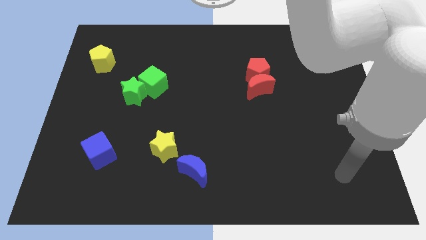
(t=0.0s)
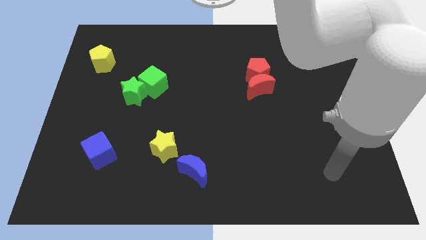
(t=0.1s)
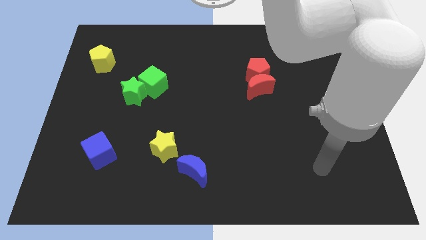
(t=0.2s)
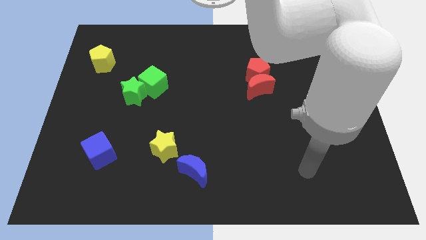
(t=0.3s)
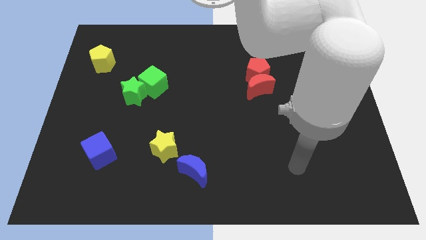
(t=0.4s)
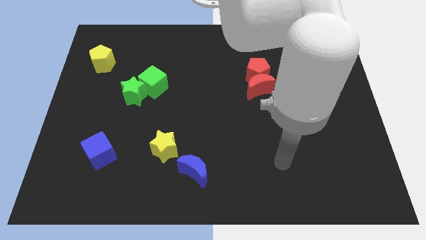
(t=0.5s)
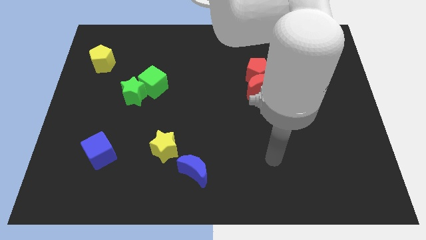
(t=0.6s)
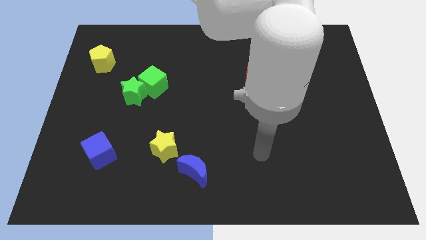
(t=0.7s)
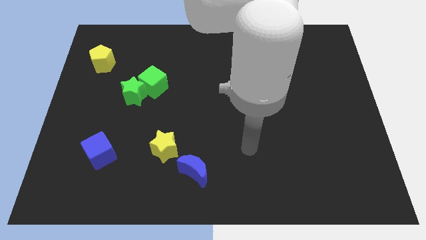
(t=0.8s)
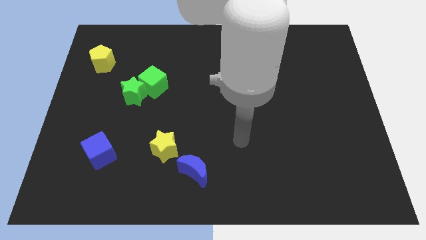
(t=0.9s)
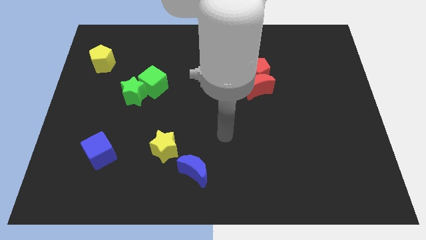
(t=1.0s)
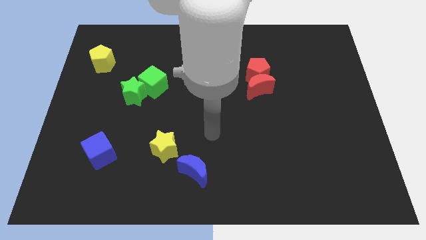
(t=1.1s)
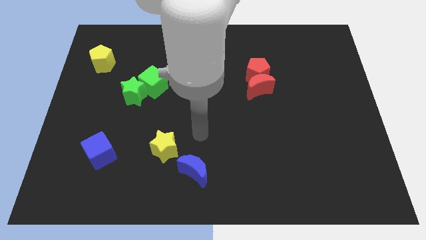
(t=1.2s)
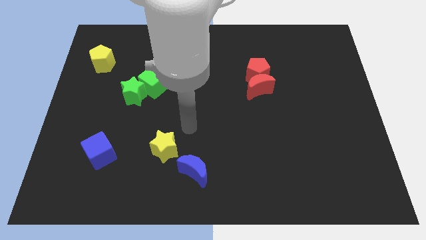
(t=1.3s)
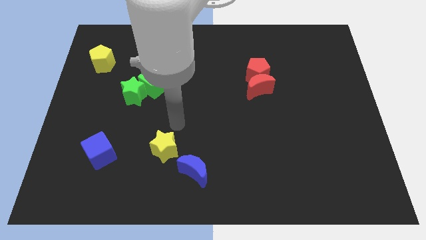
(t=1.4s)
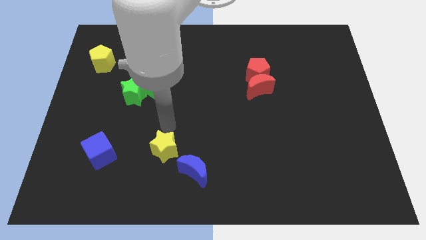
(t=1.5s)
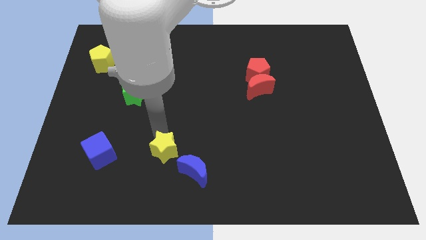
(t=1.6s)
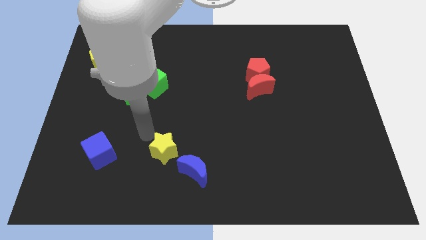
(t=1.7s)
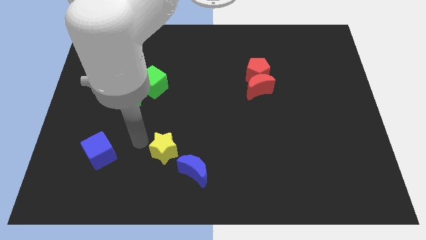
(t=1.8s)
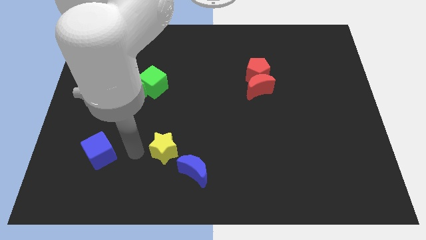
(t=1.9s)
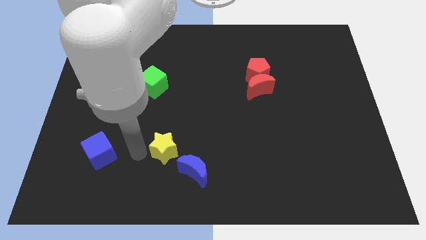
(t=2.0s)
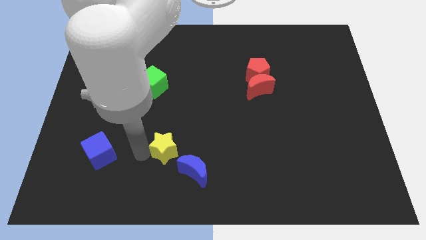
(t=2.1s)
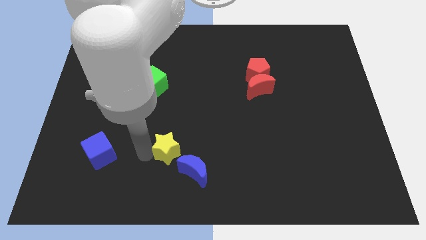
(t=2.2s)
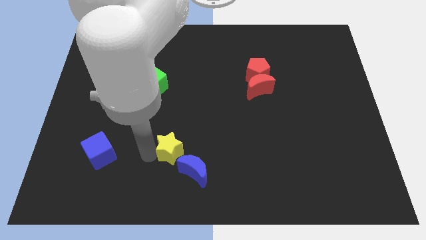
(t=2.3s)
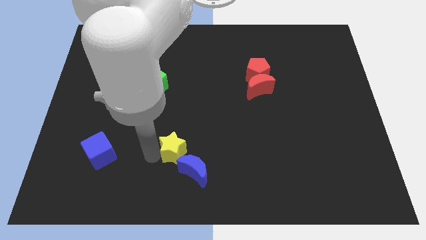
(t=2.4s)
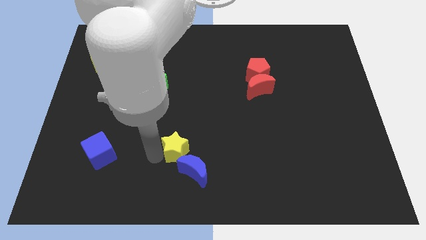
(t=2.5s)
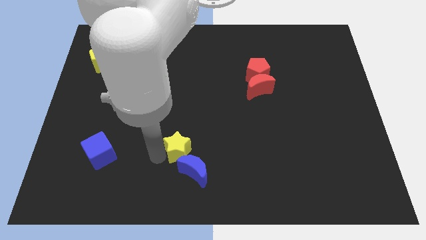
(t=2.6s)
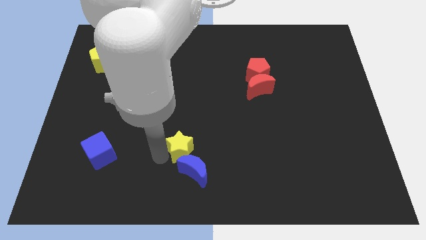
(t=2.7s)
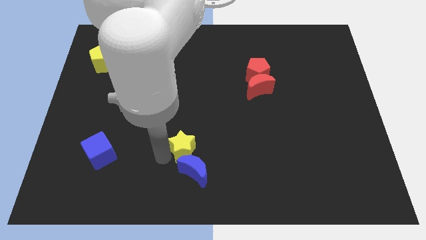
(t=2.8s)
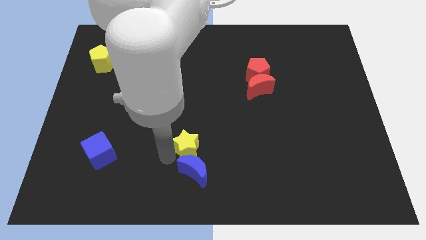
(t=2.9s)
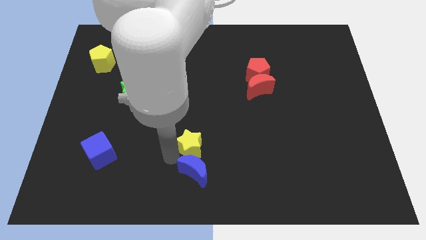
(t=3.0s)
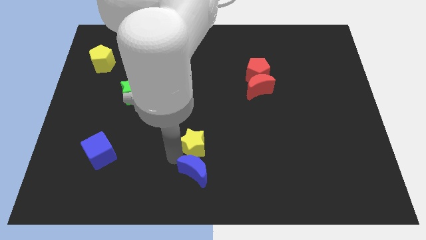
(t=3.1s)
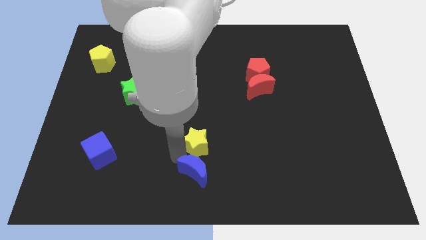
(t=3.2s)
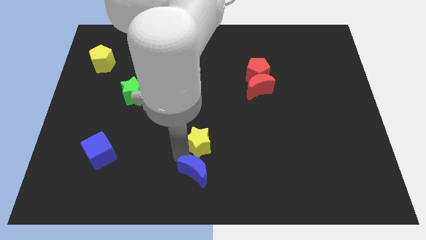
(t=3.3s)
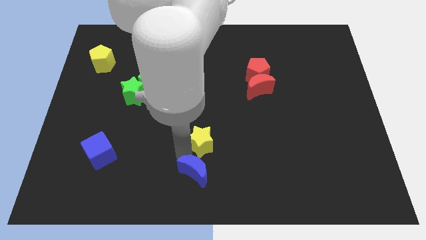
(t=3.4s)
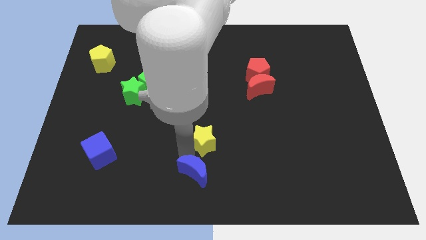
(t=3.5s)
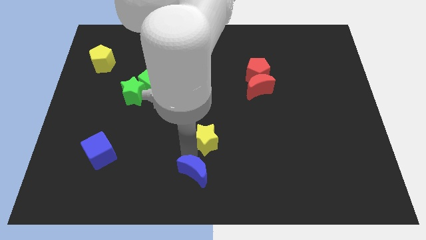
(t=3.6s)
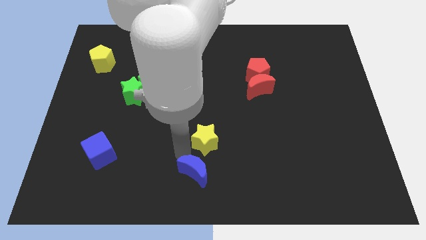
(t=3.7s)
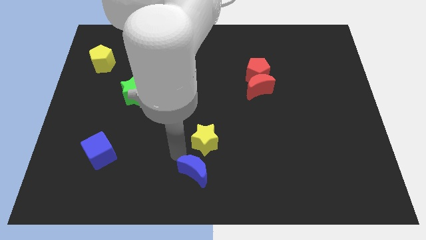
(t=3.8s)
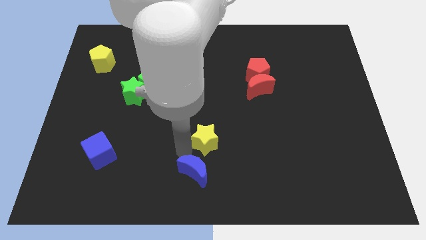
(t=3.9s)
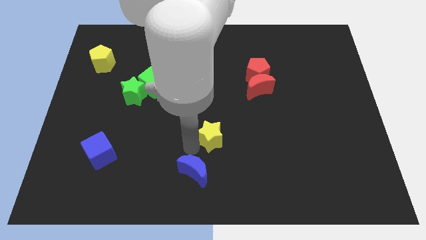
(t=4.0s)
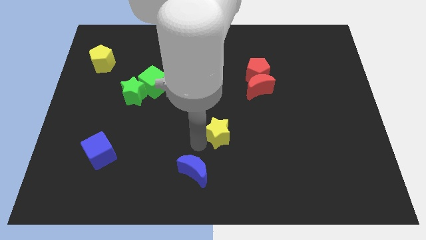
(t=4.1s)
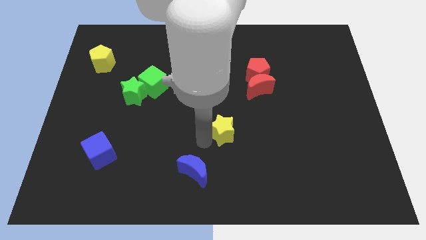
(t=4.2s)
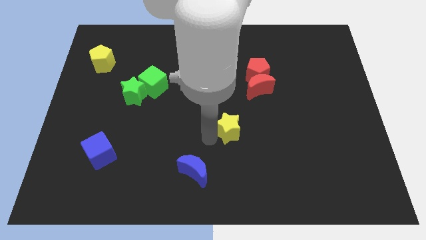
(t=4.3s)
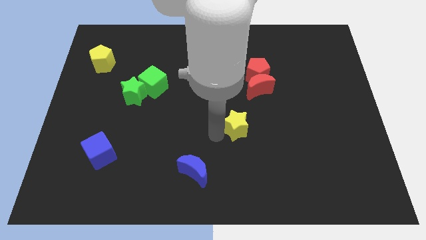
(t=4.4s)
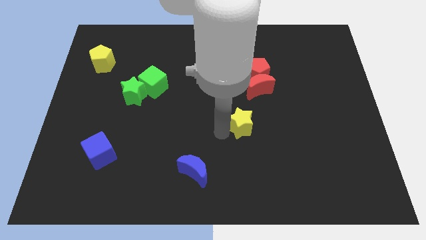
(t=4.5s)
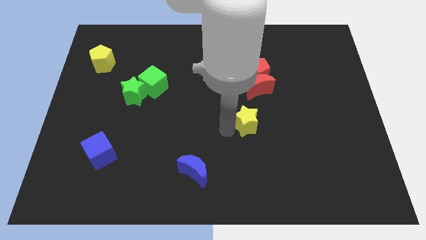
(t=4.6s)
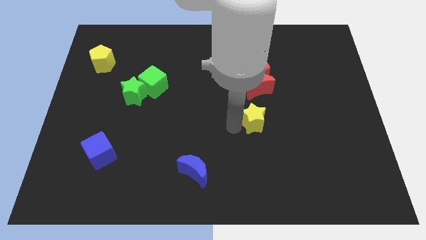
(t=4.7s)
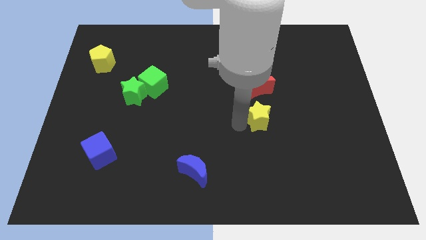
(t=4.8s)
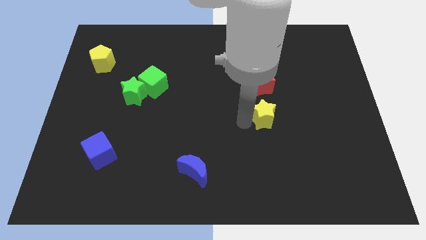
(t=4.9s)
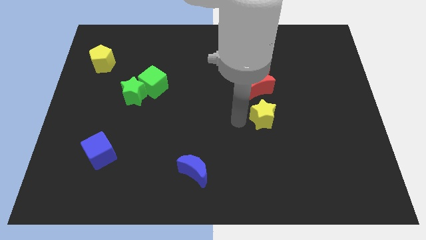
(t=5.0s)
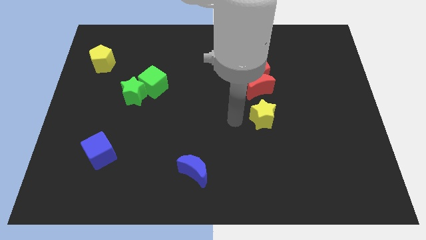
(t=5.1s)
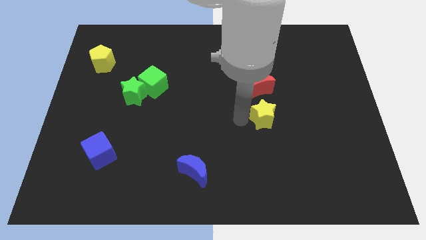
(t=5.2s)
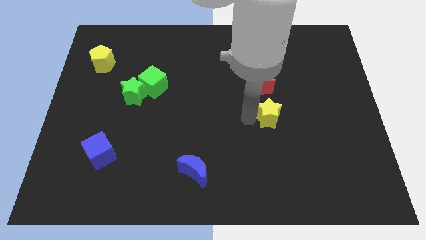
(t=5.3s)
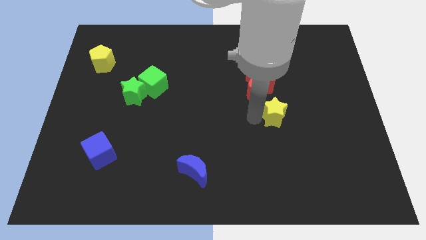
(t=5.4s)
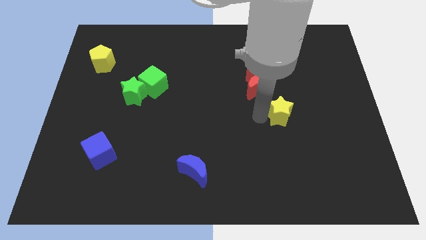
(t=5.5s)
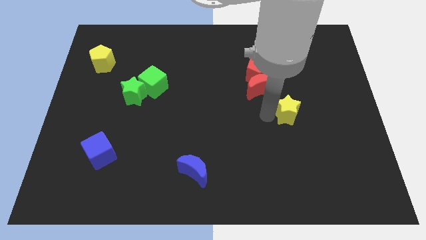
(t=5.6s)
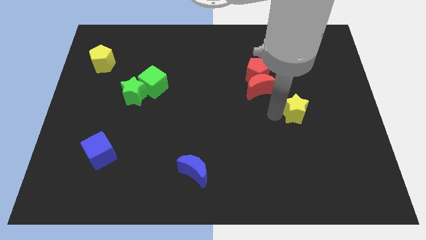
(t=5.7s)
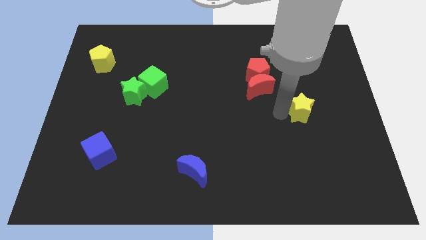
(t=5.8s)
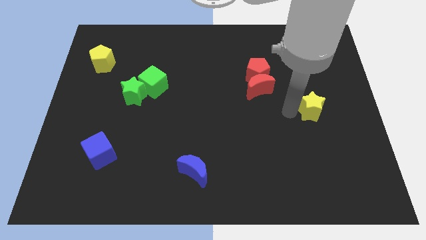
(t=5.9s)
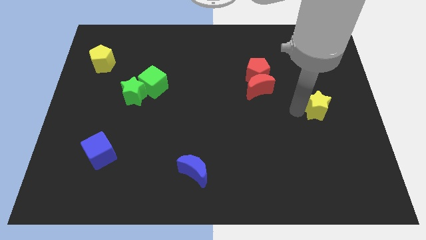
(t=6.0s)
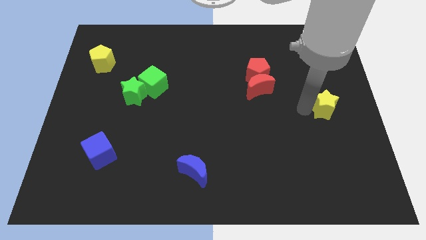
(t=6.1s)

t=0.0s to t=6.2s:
put the yellow star to the right side
